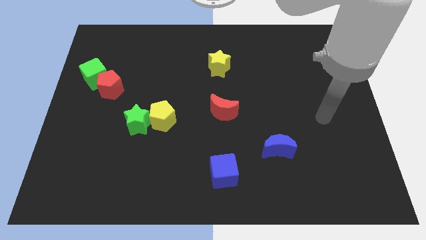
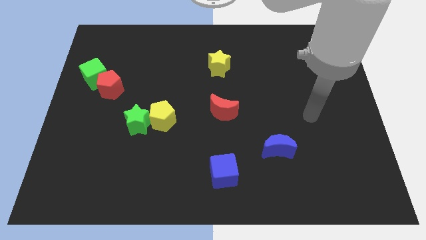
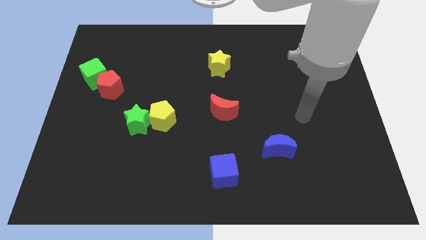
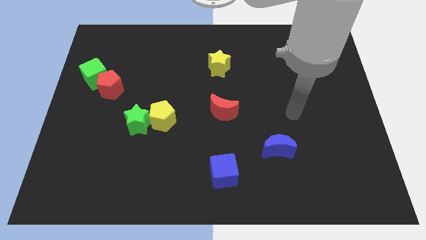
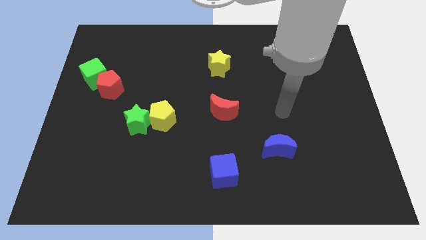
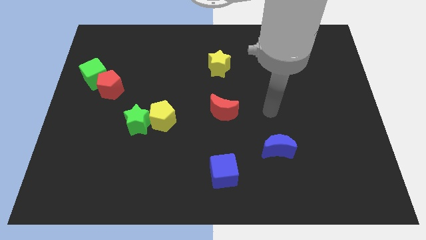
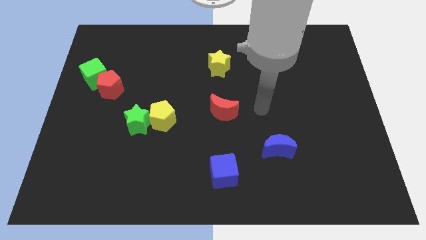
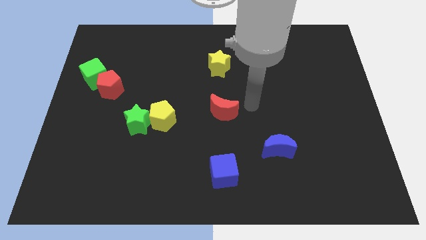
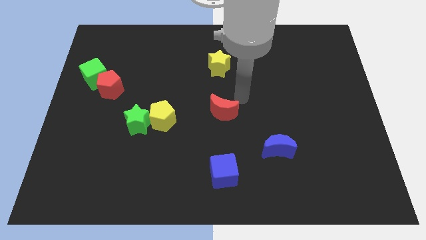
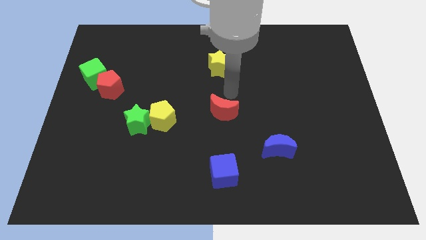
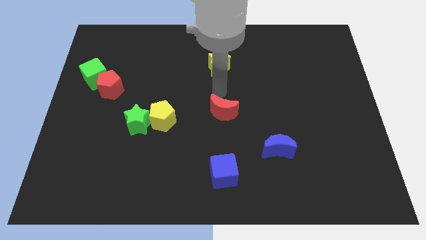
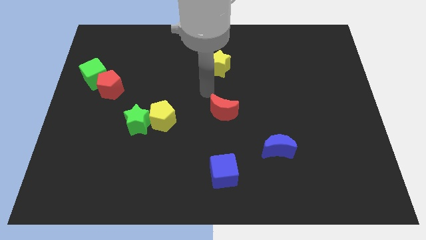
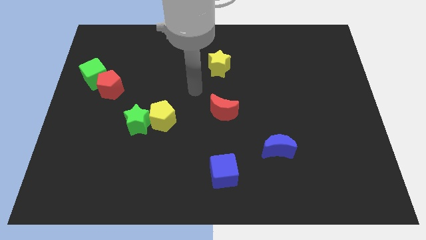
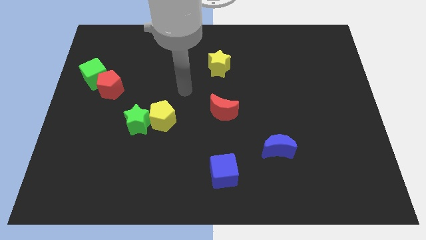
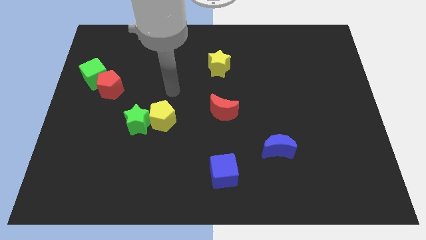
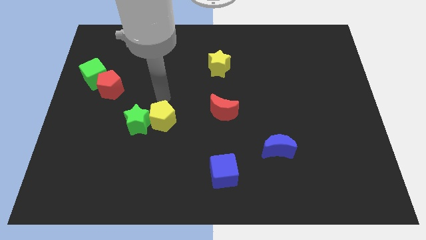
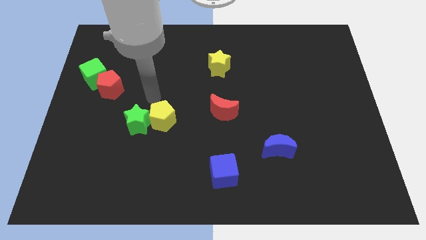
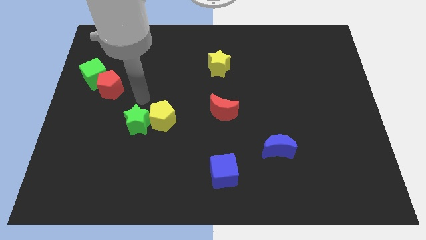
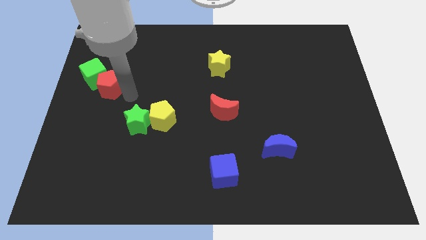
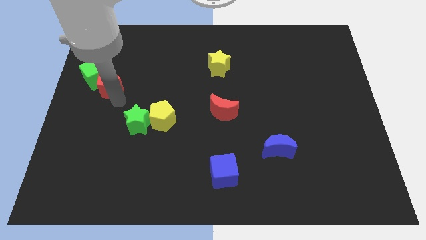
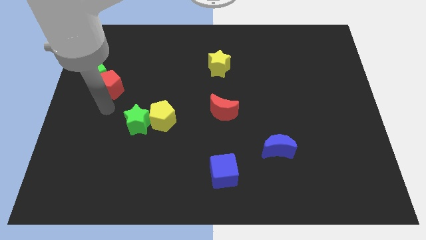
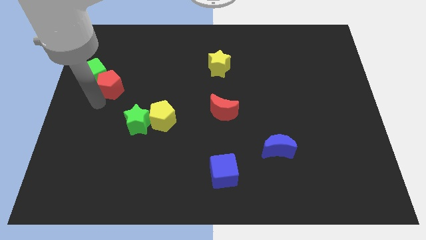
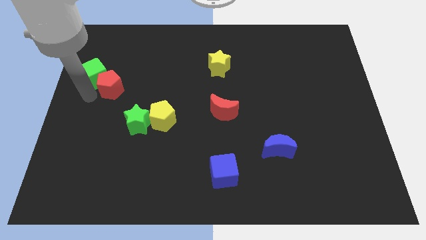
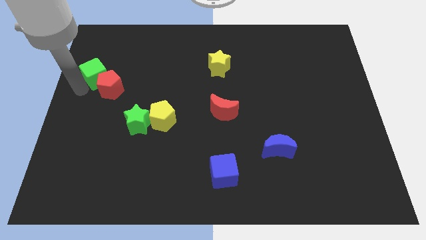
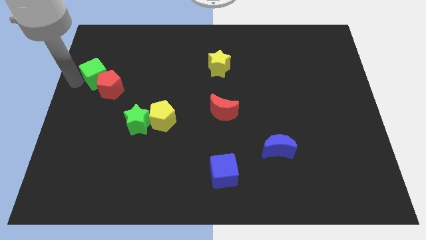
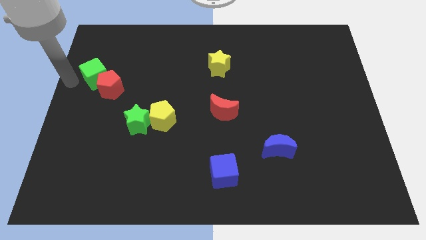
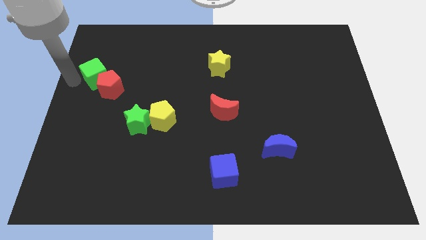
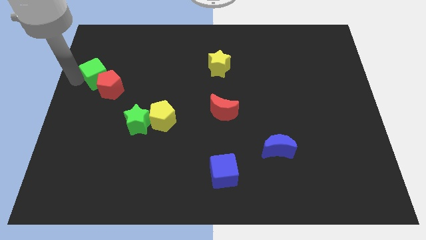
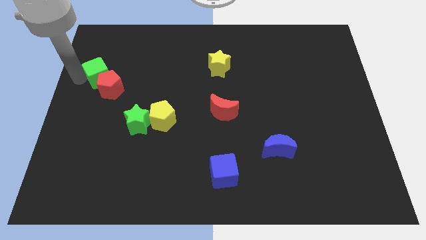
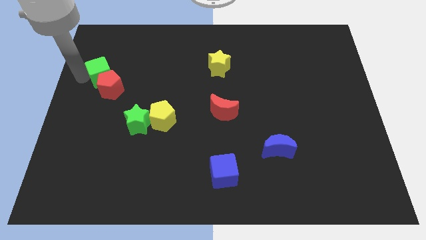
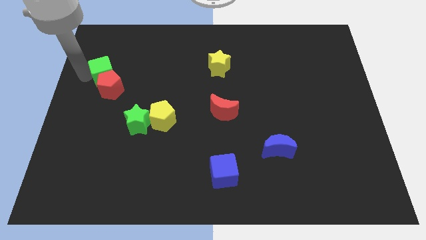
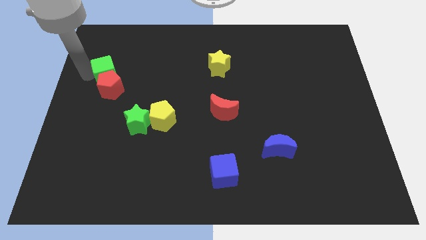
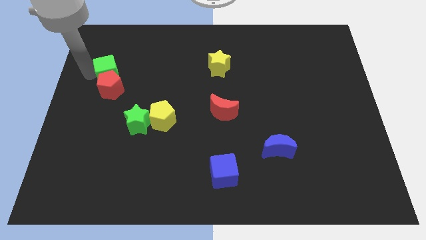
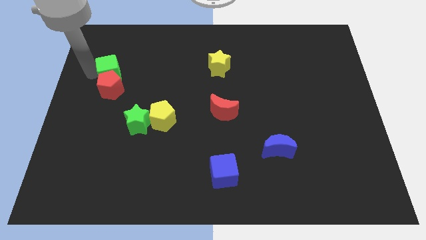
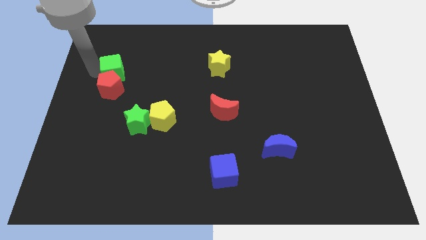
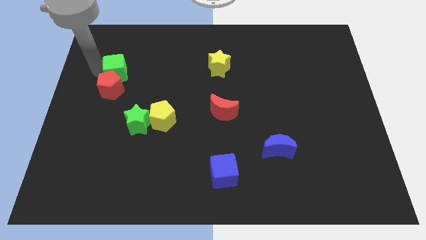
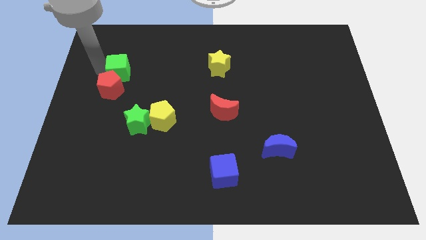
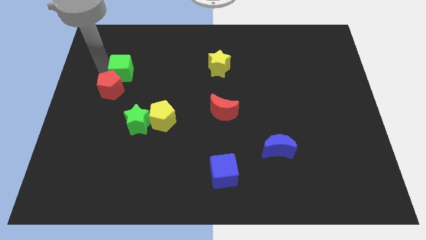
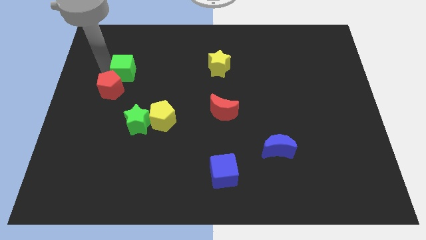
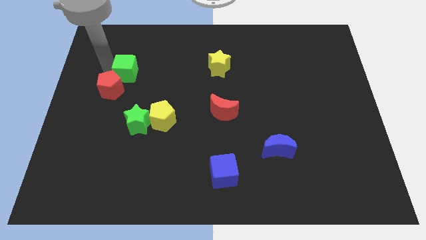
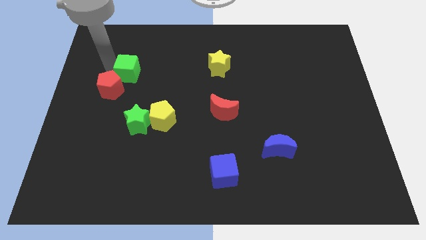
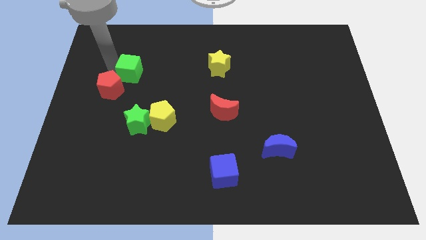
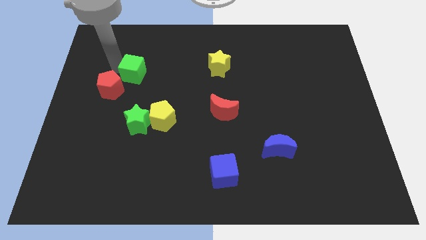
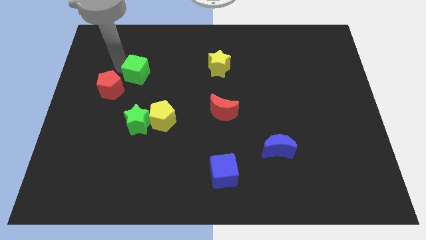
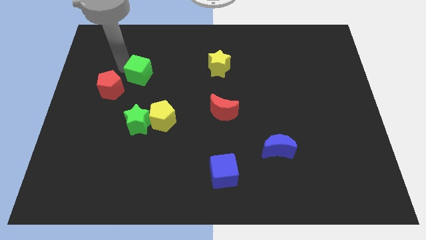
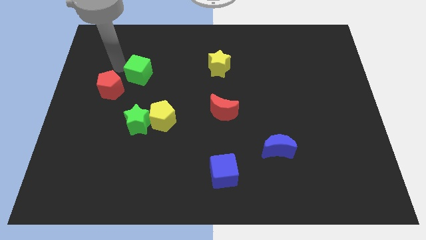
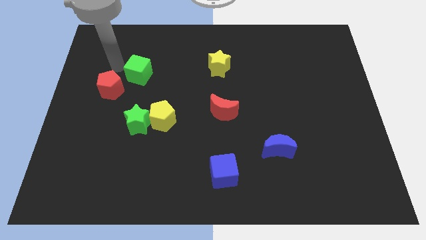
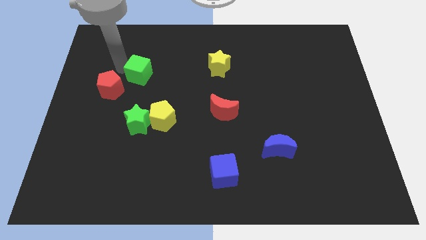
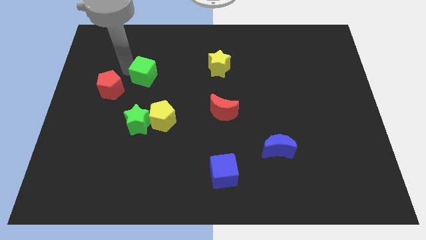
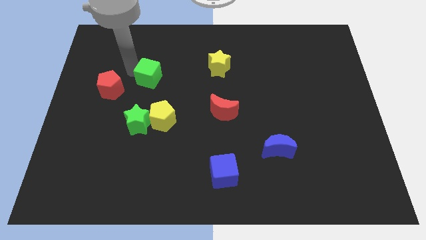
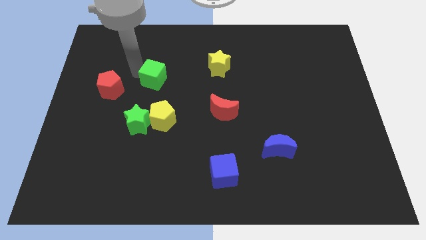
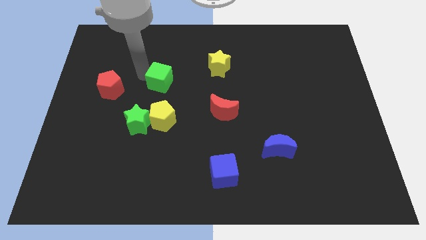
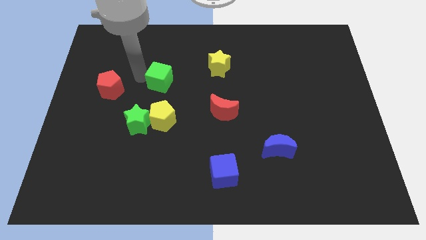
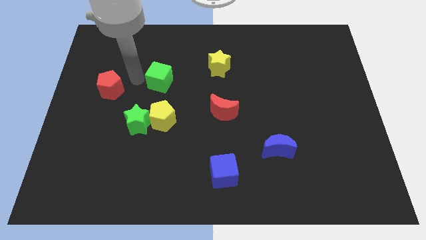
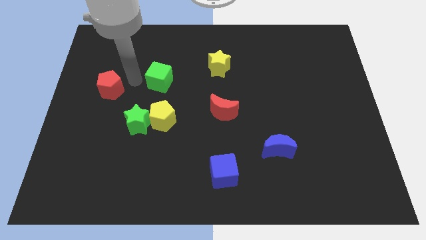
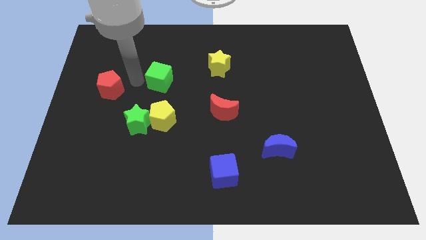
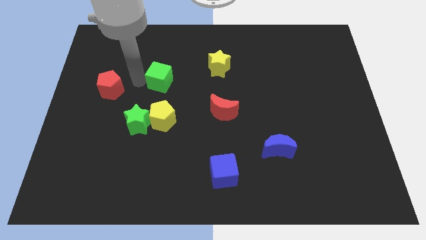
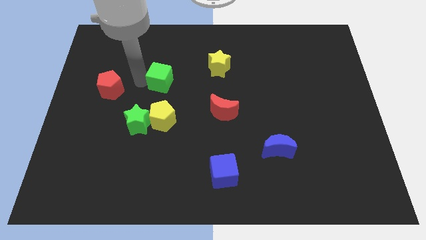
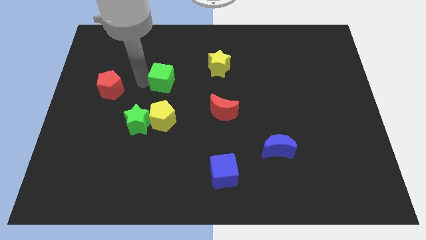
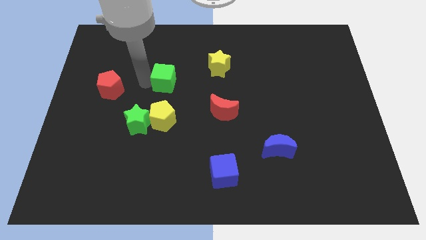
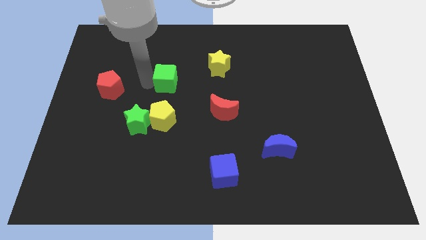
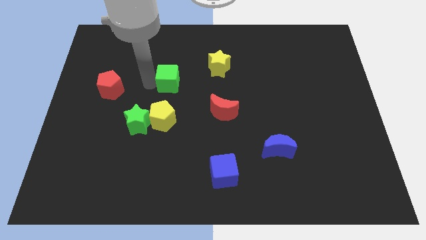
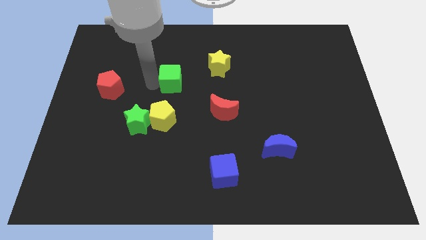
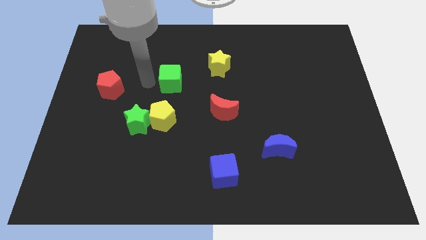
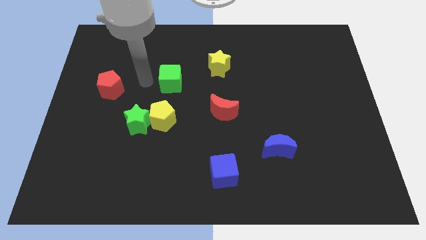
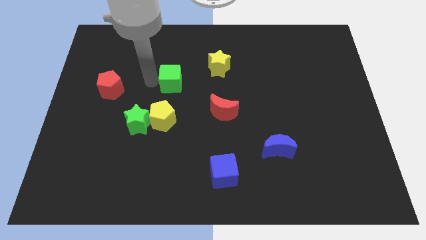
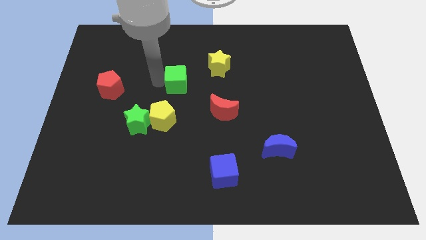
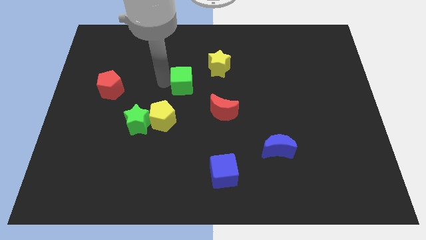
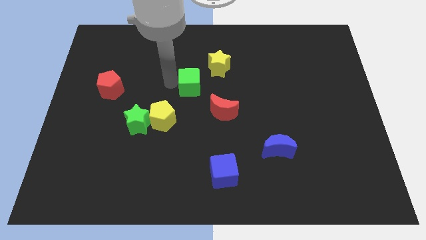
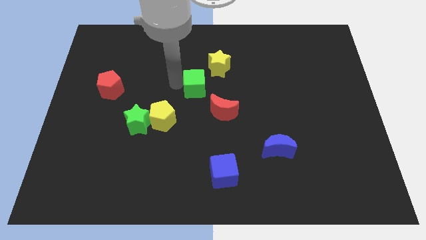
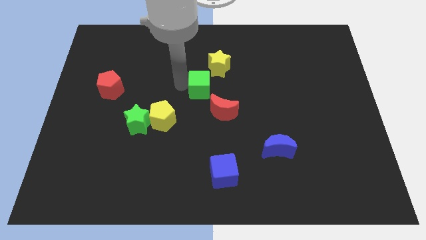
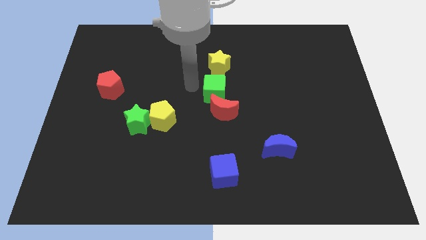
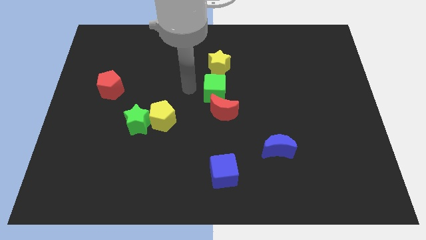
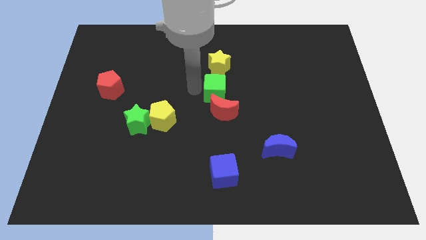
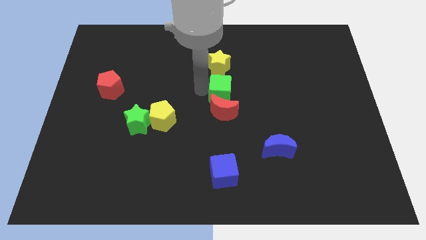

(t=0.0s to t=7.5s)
slide the green cube diagonally up and to the right of the red moon
